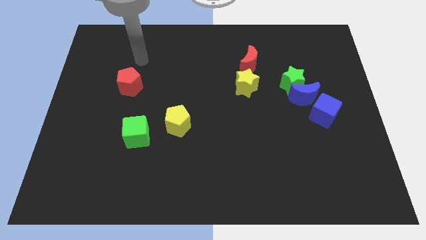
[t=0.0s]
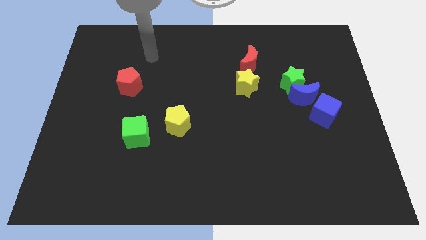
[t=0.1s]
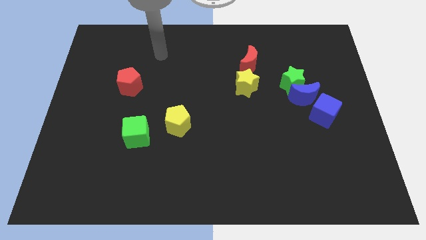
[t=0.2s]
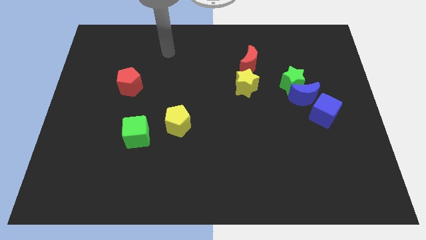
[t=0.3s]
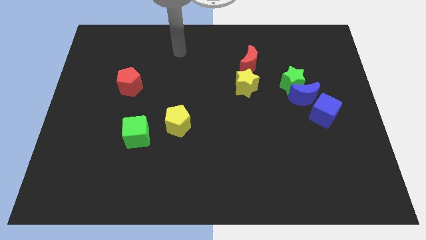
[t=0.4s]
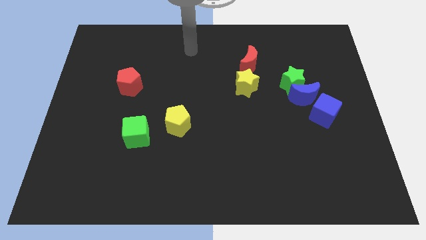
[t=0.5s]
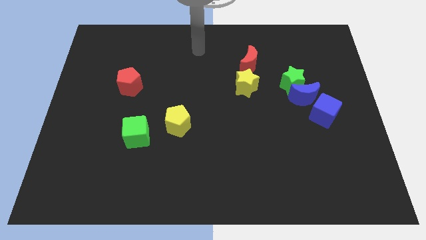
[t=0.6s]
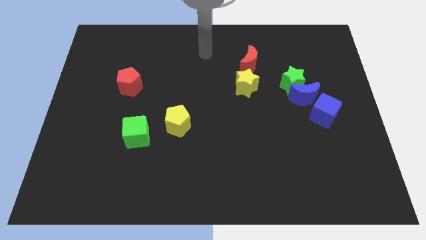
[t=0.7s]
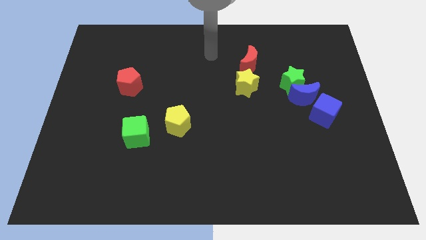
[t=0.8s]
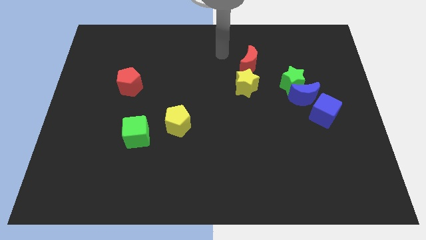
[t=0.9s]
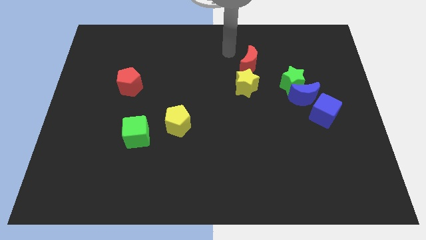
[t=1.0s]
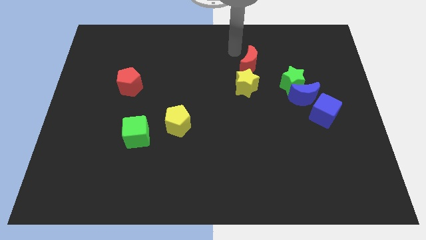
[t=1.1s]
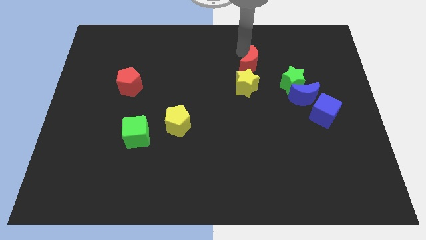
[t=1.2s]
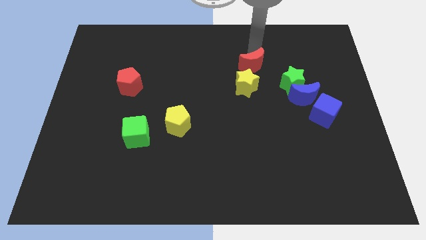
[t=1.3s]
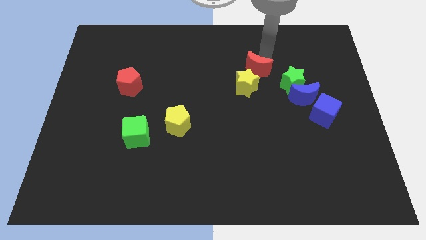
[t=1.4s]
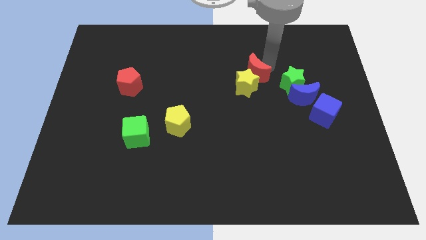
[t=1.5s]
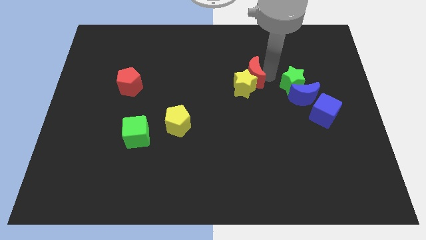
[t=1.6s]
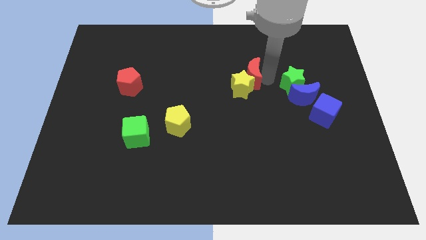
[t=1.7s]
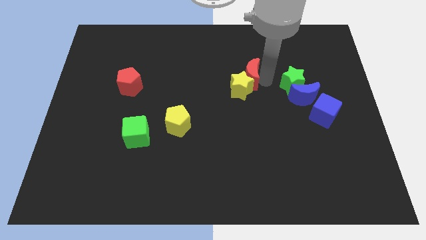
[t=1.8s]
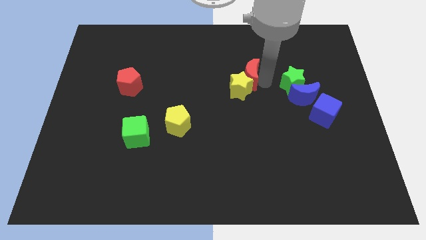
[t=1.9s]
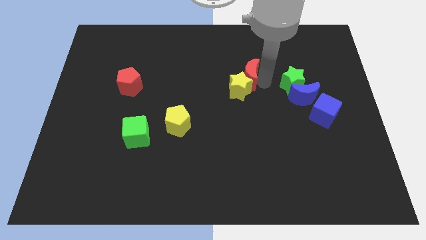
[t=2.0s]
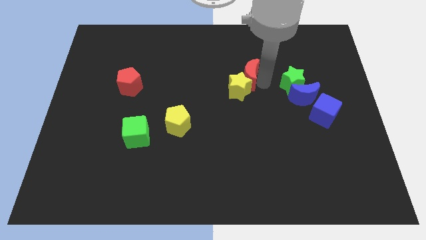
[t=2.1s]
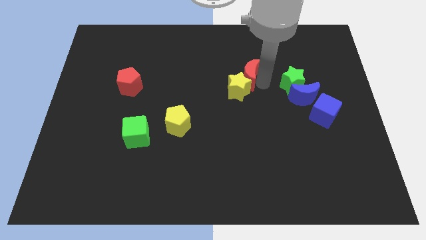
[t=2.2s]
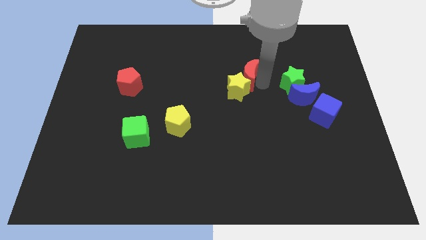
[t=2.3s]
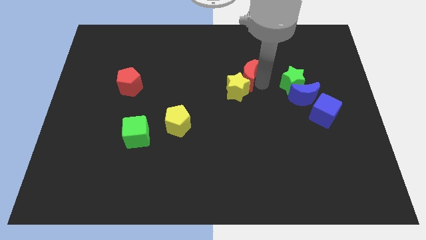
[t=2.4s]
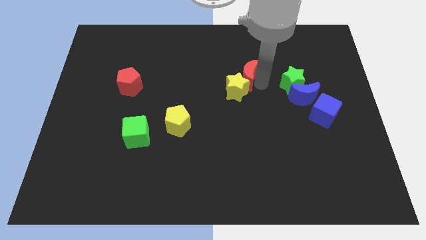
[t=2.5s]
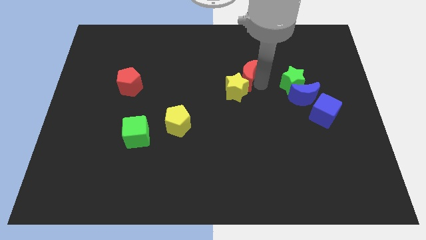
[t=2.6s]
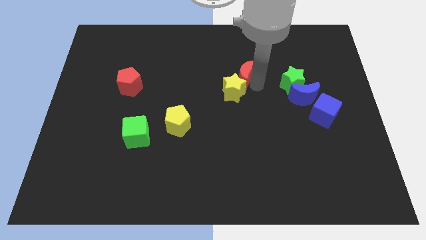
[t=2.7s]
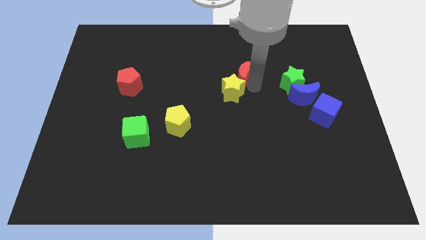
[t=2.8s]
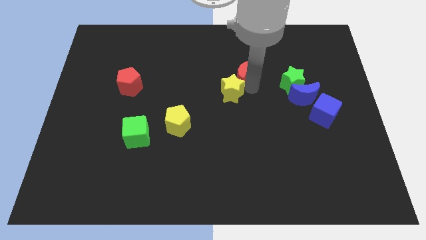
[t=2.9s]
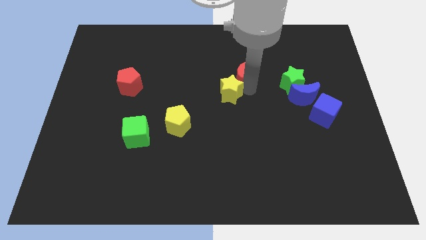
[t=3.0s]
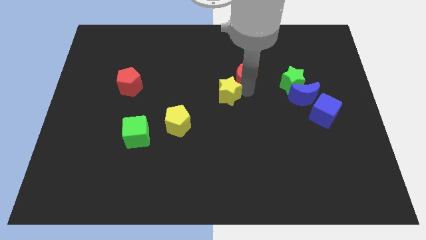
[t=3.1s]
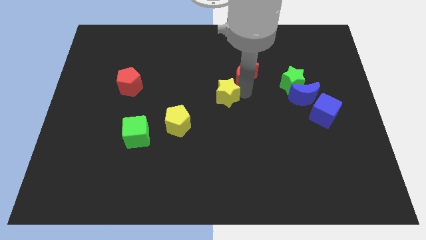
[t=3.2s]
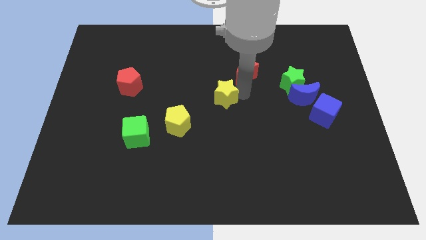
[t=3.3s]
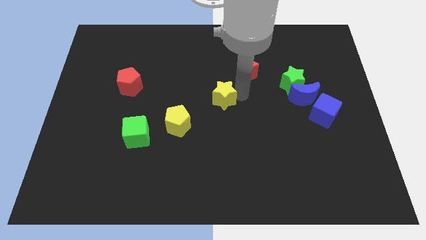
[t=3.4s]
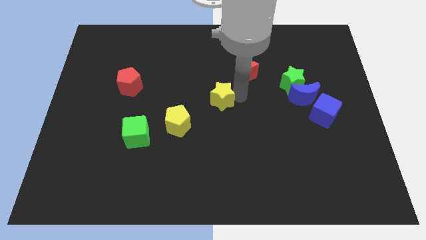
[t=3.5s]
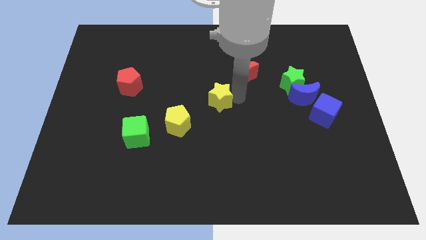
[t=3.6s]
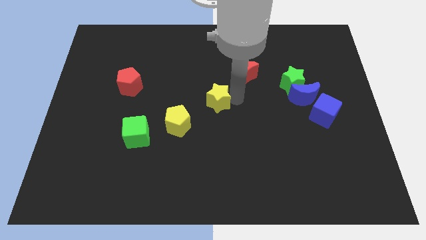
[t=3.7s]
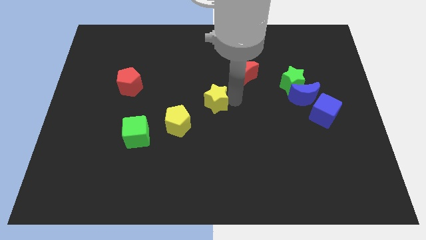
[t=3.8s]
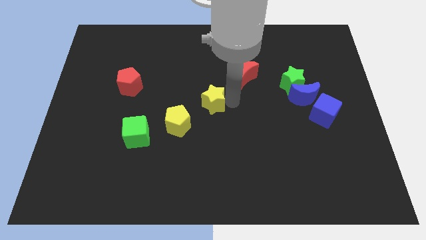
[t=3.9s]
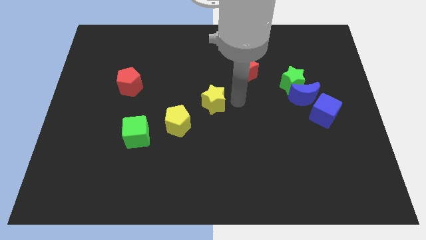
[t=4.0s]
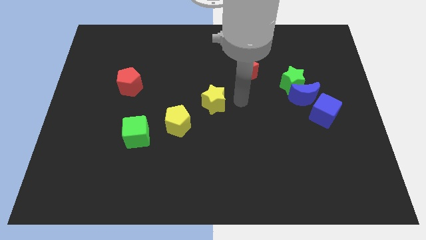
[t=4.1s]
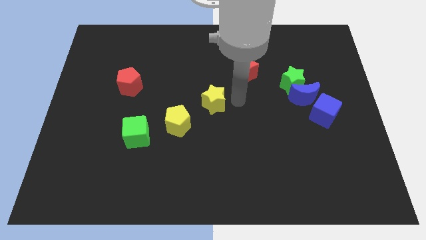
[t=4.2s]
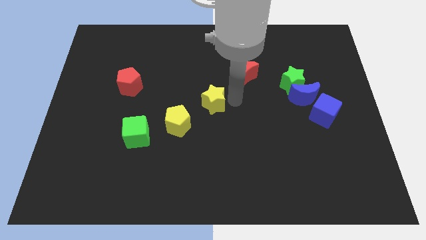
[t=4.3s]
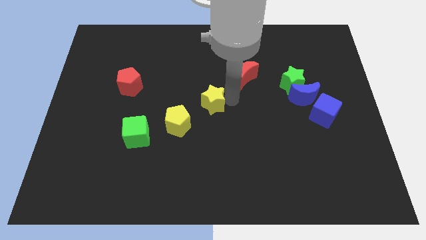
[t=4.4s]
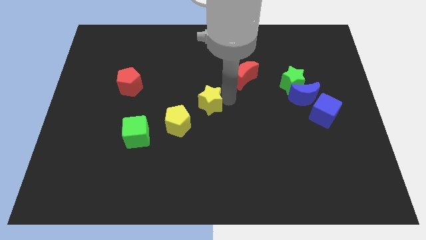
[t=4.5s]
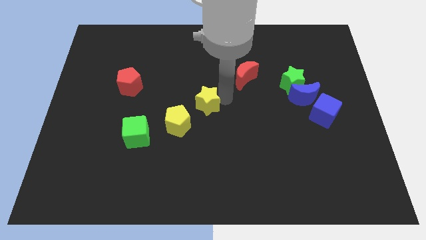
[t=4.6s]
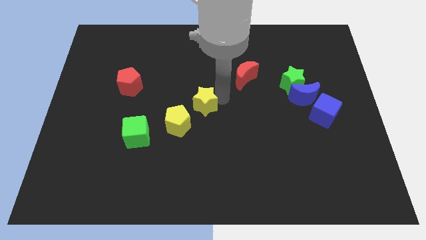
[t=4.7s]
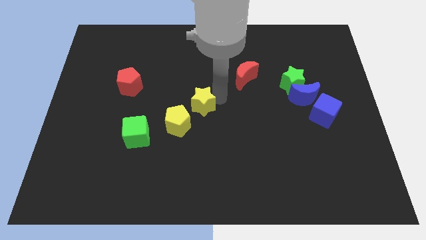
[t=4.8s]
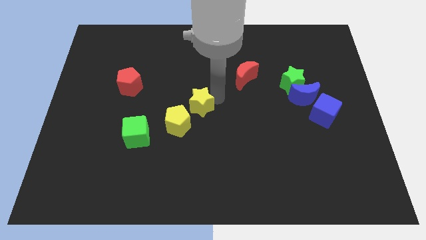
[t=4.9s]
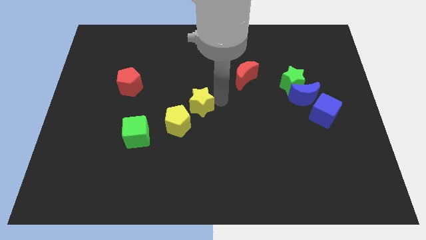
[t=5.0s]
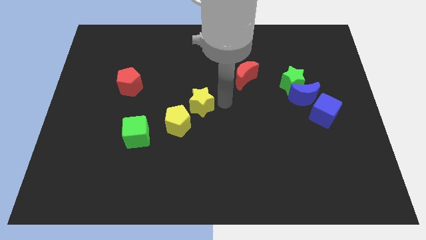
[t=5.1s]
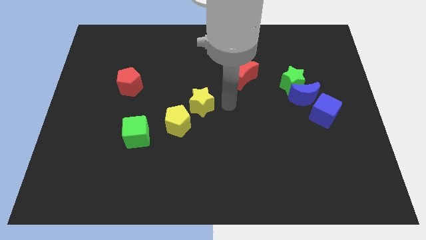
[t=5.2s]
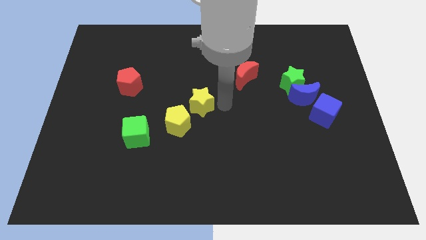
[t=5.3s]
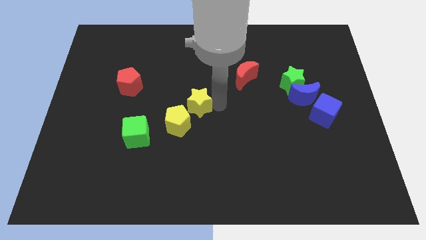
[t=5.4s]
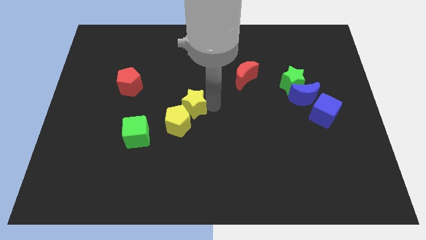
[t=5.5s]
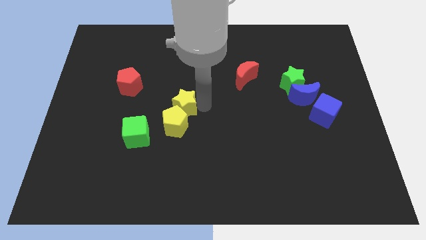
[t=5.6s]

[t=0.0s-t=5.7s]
put the yellow star to the top right side of the green cube

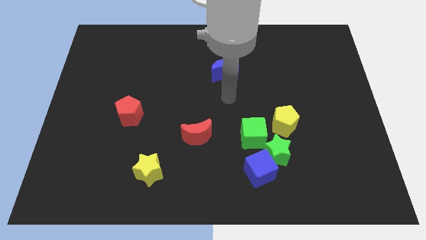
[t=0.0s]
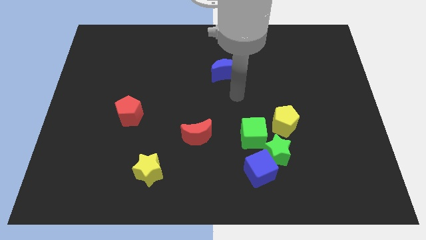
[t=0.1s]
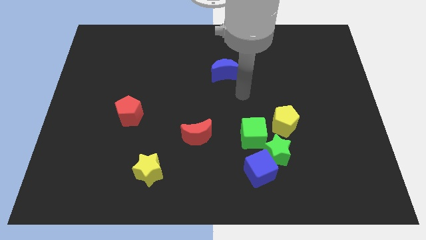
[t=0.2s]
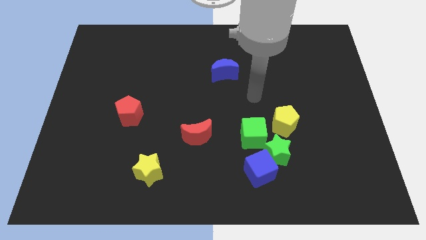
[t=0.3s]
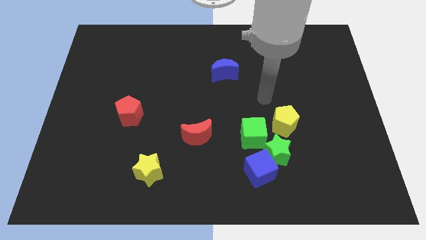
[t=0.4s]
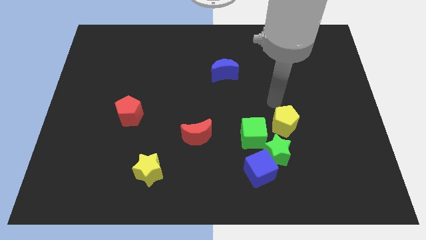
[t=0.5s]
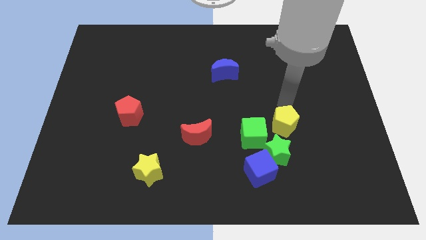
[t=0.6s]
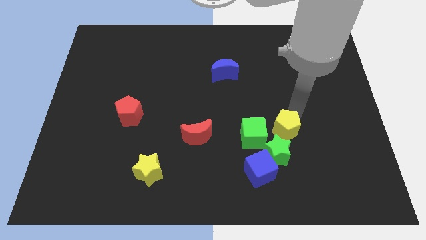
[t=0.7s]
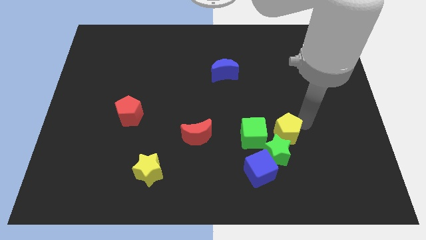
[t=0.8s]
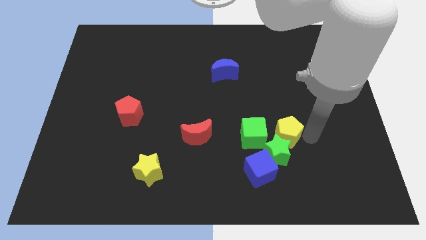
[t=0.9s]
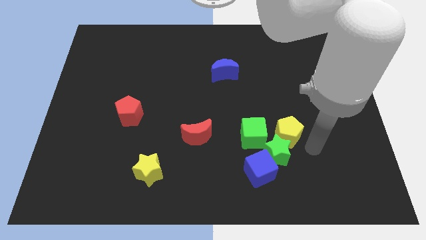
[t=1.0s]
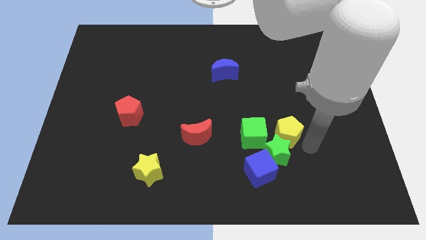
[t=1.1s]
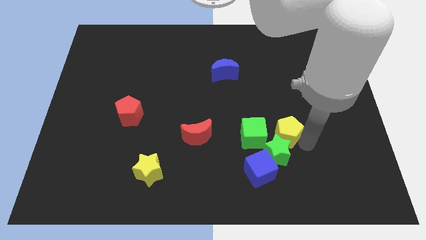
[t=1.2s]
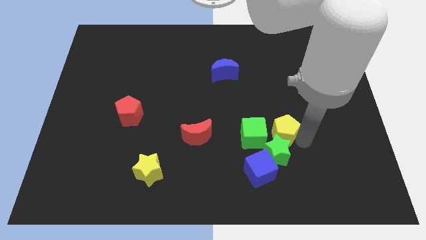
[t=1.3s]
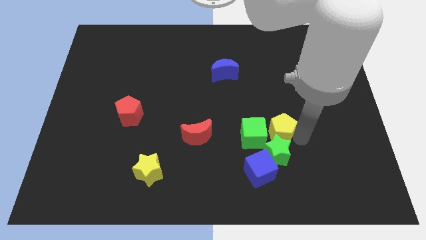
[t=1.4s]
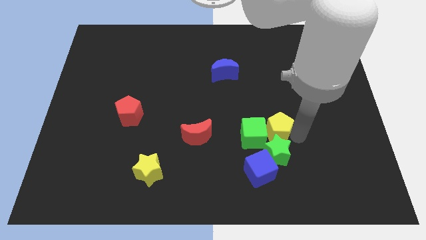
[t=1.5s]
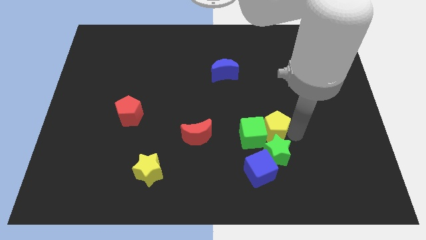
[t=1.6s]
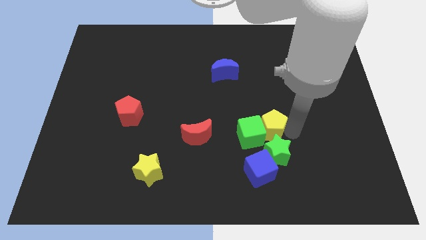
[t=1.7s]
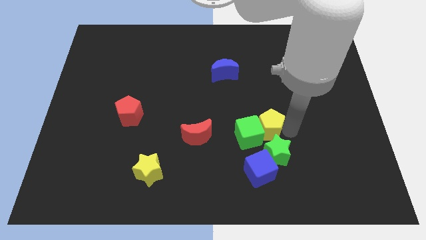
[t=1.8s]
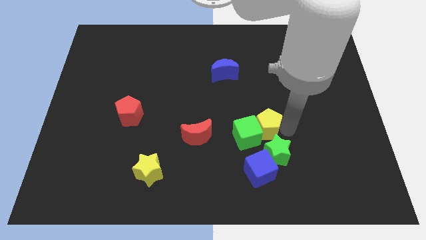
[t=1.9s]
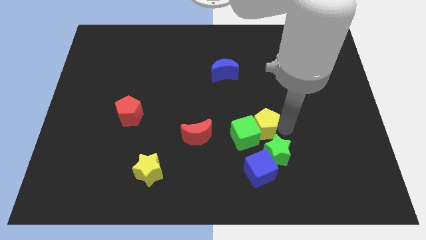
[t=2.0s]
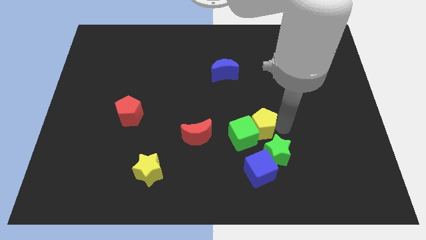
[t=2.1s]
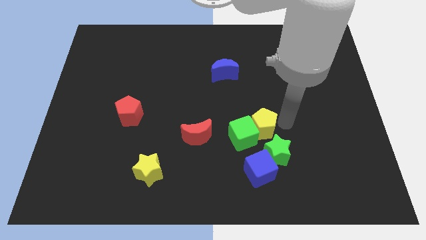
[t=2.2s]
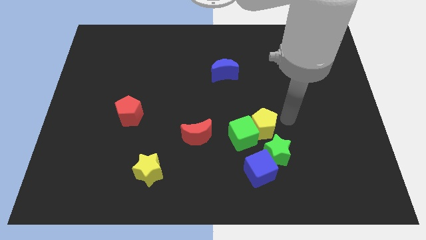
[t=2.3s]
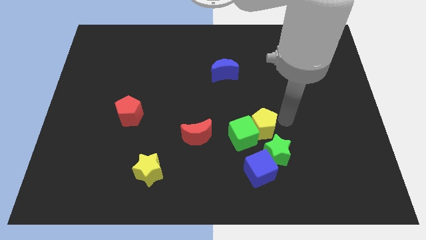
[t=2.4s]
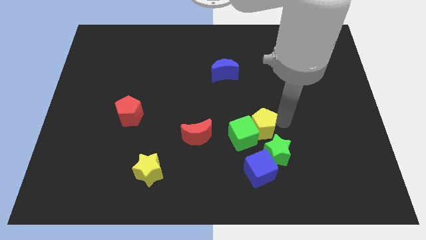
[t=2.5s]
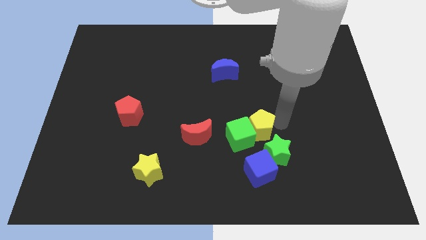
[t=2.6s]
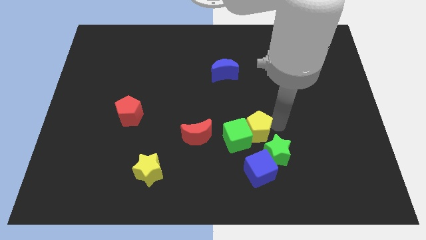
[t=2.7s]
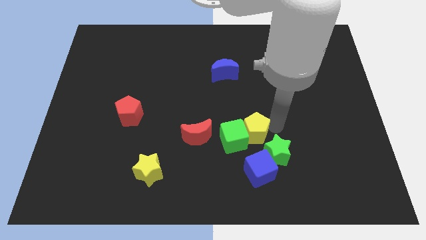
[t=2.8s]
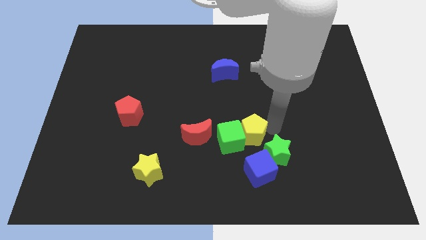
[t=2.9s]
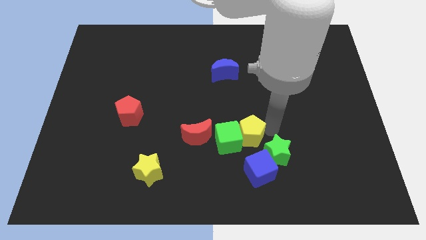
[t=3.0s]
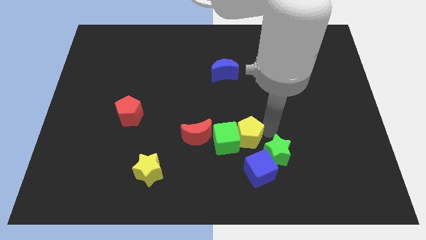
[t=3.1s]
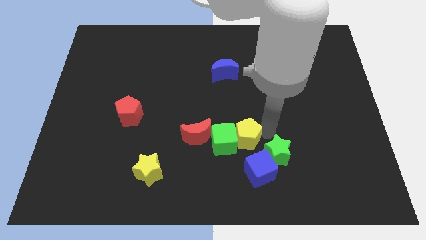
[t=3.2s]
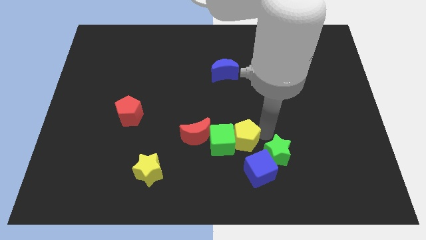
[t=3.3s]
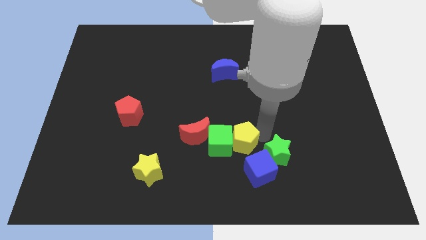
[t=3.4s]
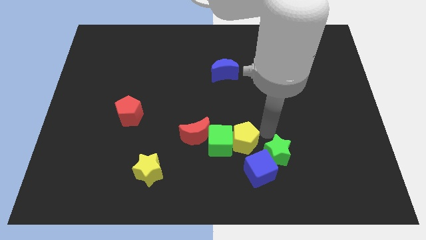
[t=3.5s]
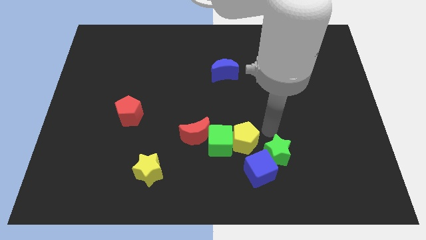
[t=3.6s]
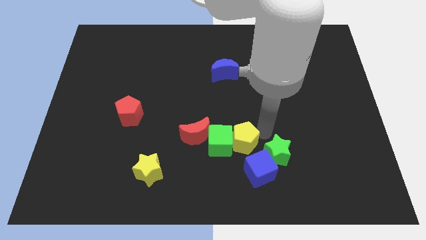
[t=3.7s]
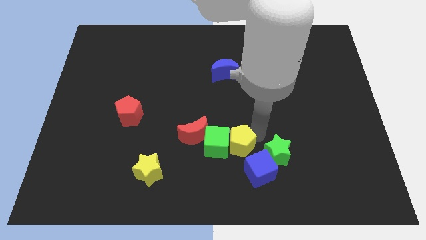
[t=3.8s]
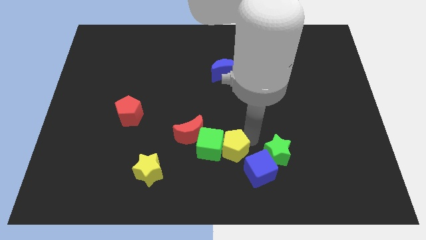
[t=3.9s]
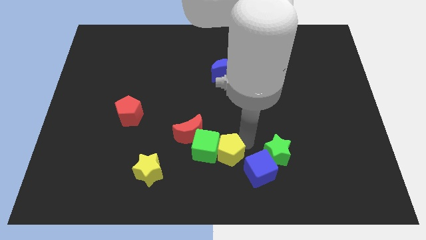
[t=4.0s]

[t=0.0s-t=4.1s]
slide the yellow pentagon to the left of the blue cube
